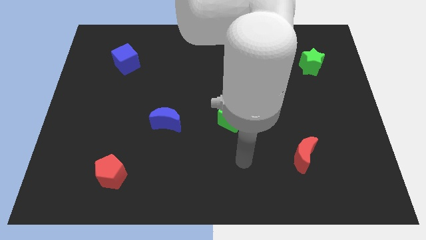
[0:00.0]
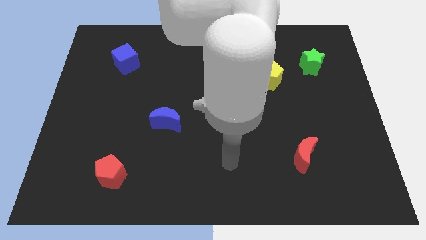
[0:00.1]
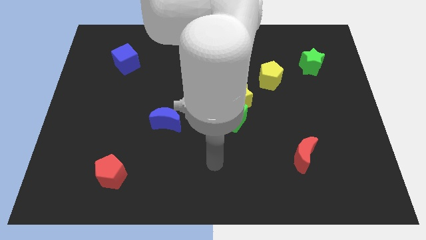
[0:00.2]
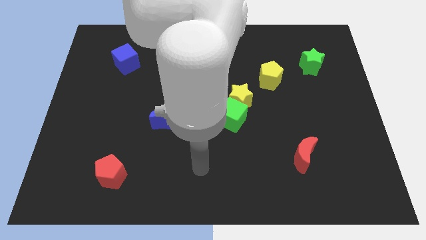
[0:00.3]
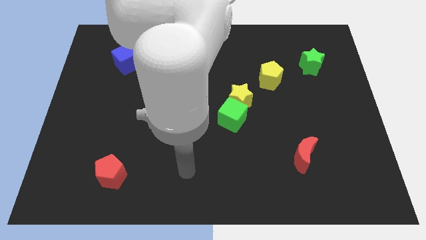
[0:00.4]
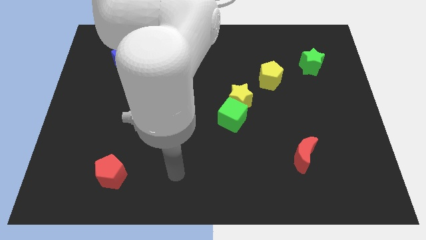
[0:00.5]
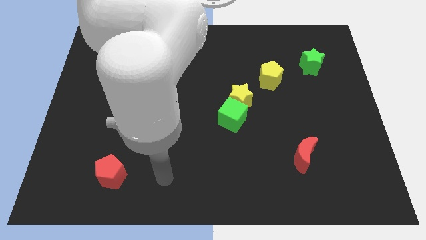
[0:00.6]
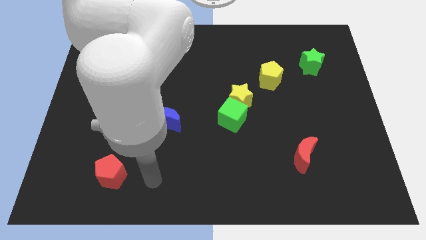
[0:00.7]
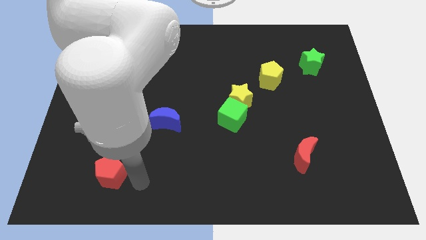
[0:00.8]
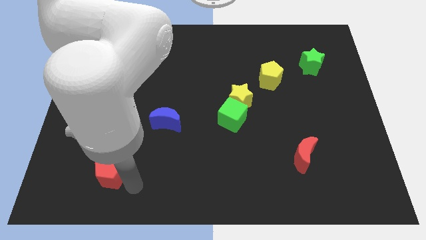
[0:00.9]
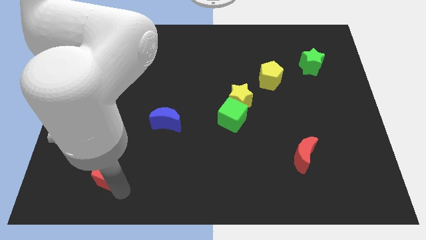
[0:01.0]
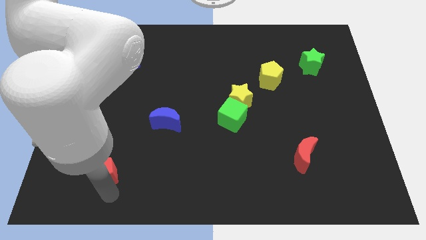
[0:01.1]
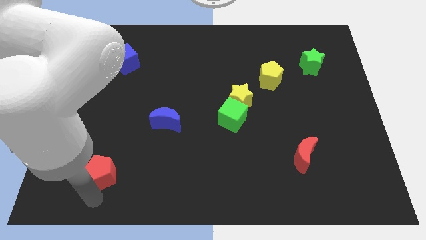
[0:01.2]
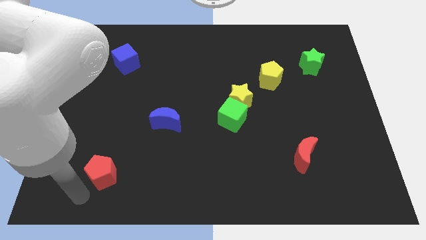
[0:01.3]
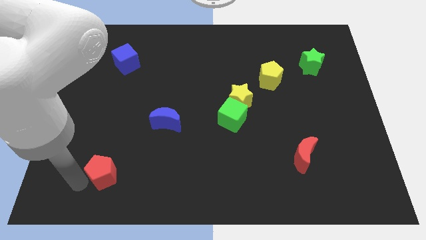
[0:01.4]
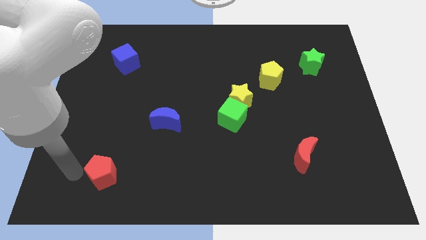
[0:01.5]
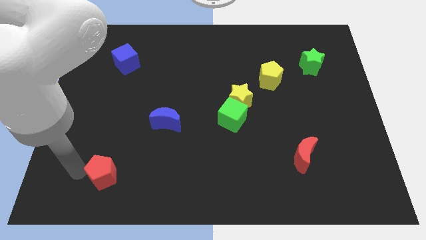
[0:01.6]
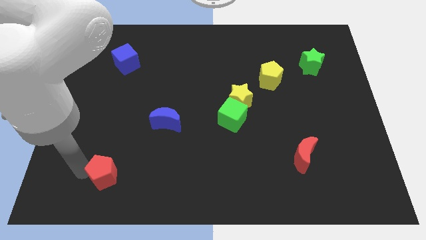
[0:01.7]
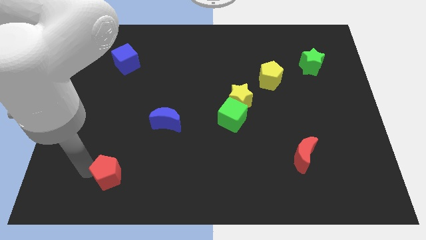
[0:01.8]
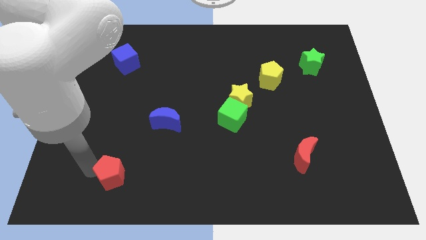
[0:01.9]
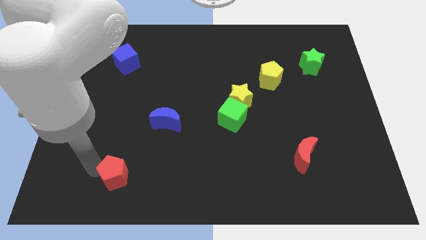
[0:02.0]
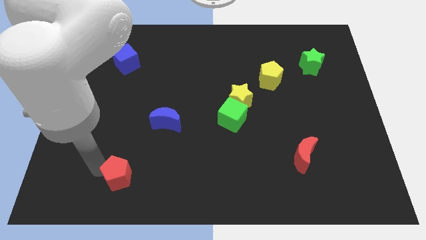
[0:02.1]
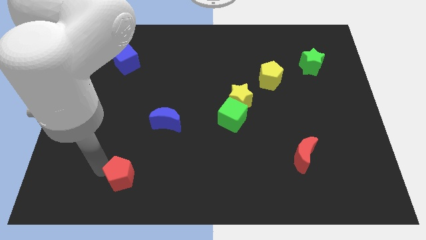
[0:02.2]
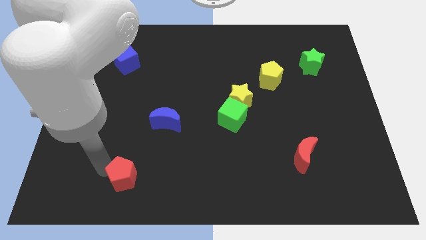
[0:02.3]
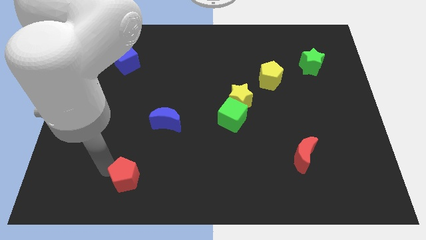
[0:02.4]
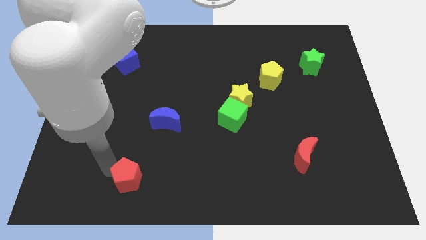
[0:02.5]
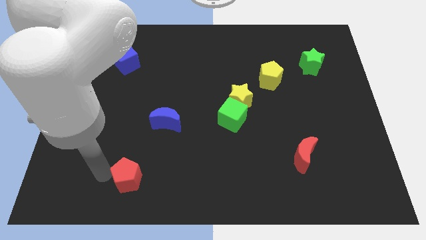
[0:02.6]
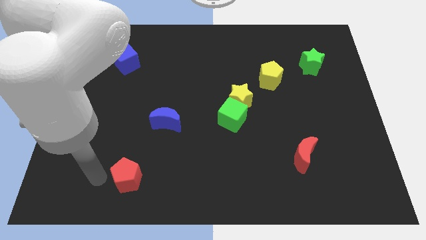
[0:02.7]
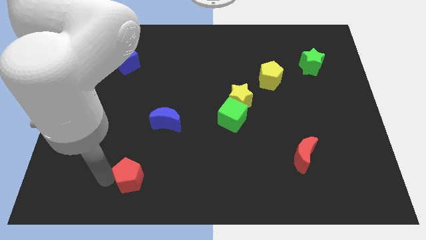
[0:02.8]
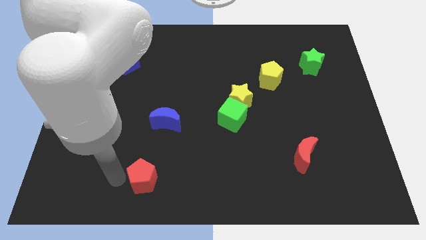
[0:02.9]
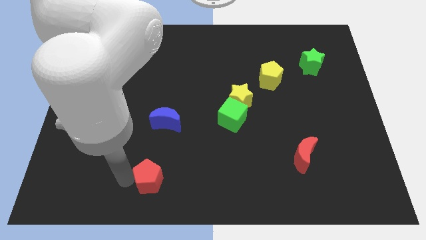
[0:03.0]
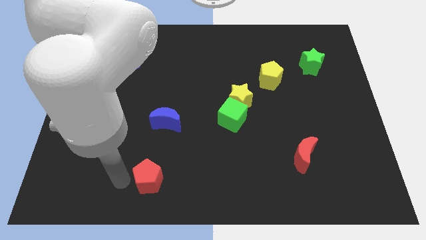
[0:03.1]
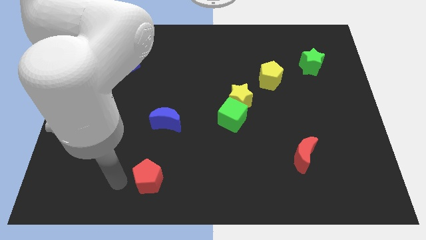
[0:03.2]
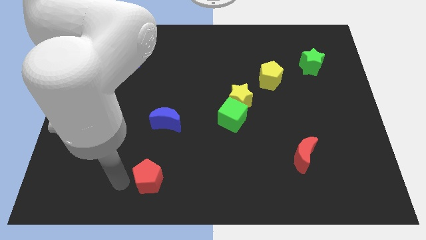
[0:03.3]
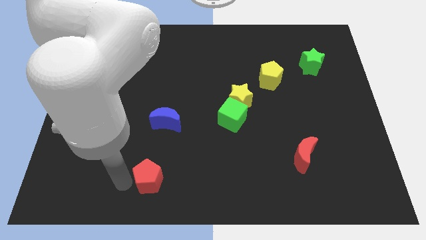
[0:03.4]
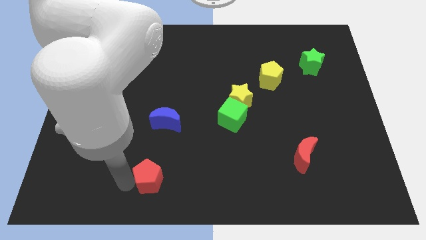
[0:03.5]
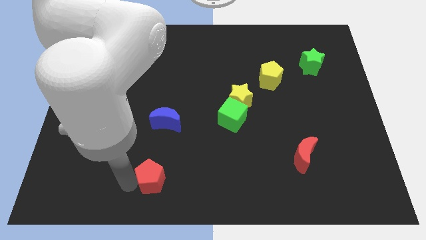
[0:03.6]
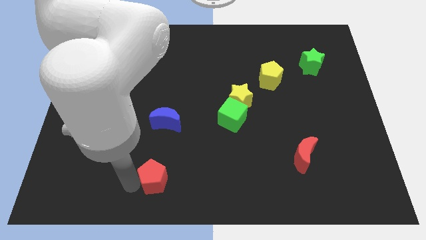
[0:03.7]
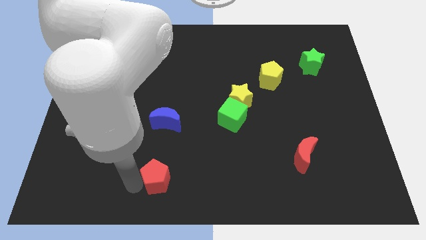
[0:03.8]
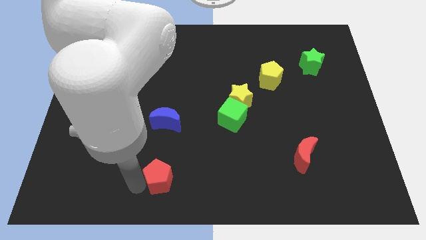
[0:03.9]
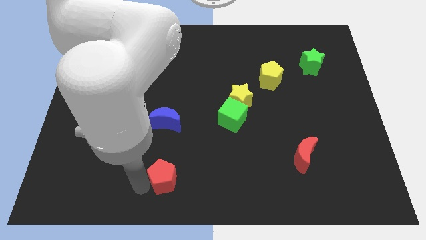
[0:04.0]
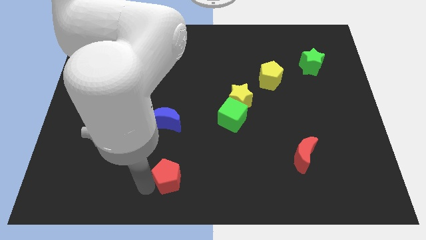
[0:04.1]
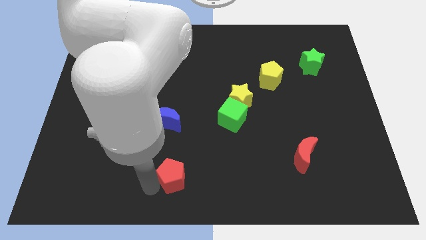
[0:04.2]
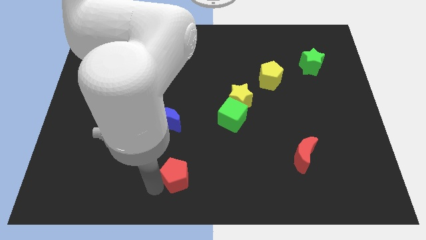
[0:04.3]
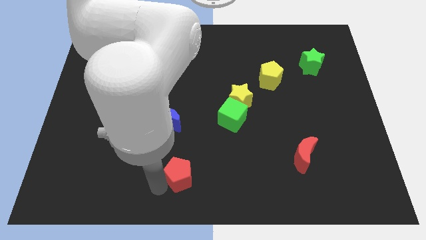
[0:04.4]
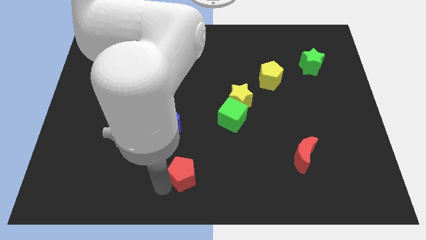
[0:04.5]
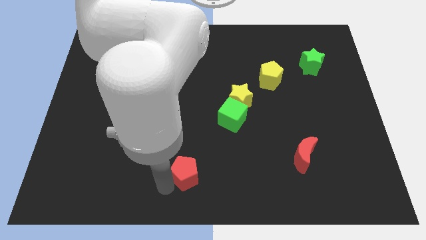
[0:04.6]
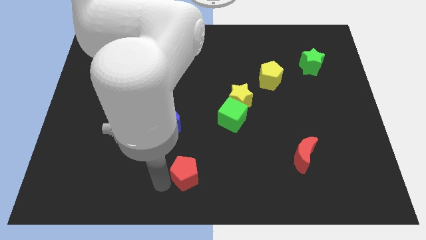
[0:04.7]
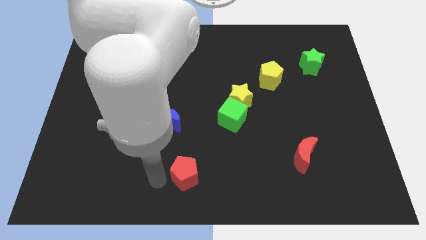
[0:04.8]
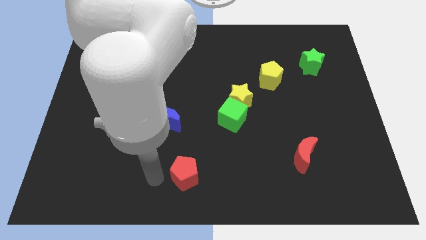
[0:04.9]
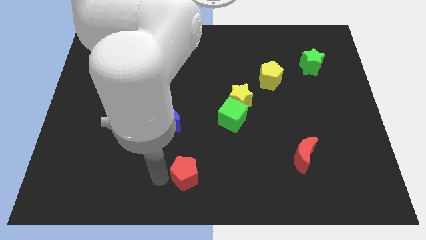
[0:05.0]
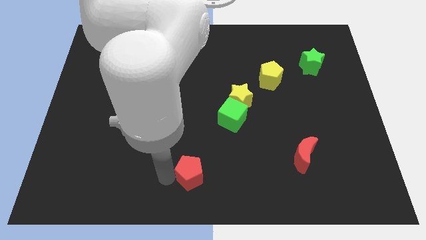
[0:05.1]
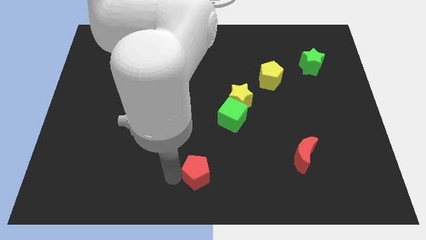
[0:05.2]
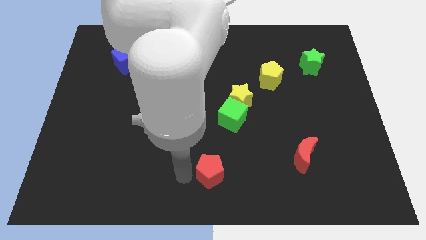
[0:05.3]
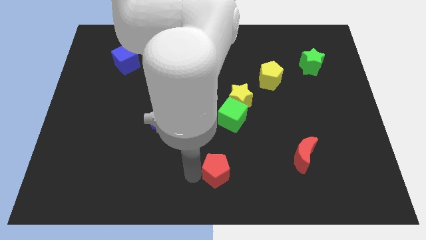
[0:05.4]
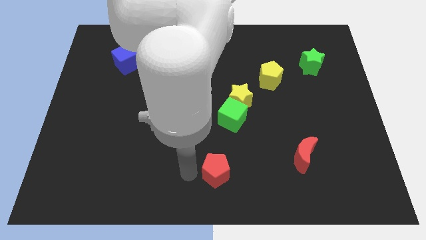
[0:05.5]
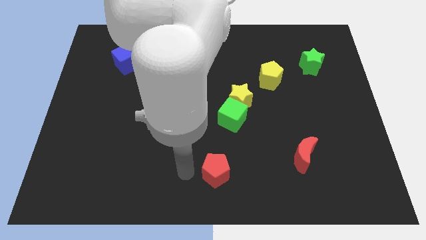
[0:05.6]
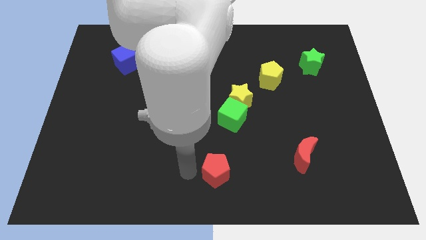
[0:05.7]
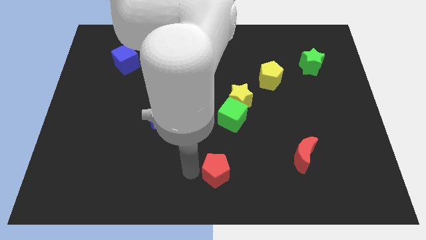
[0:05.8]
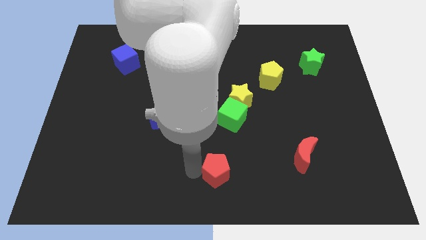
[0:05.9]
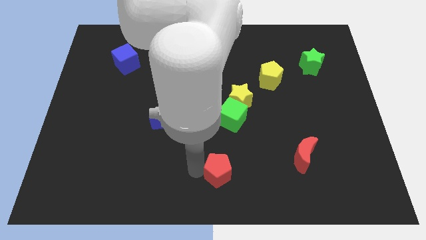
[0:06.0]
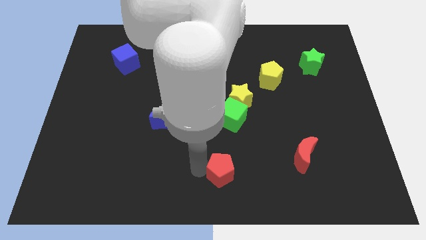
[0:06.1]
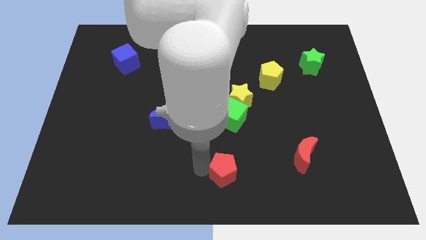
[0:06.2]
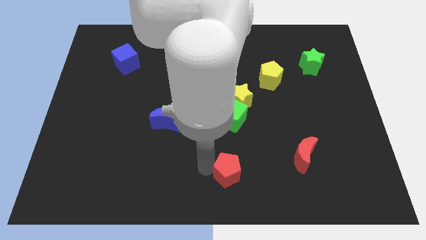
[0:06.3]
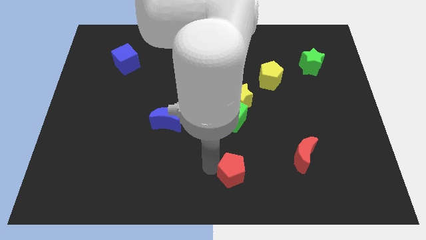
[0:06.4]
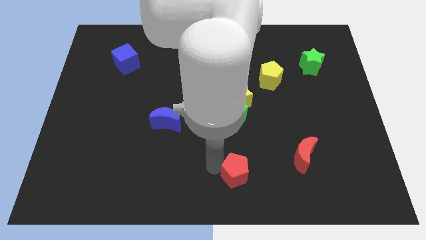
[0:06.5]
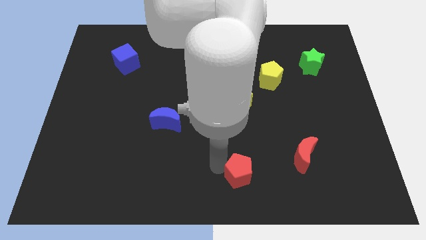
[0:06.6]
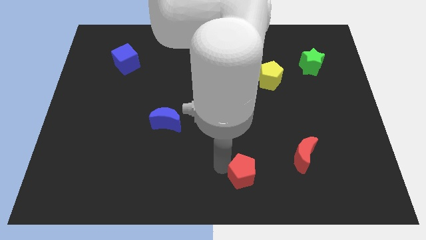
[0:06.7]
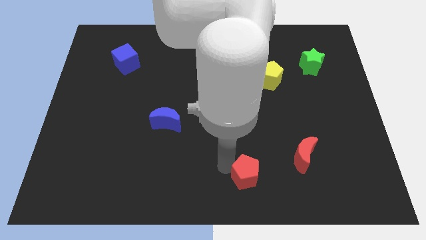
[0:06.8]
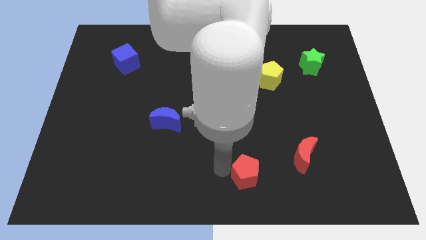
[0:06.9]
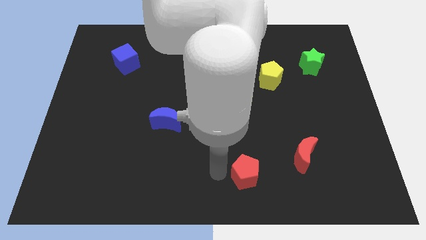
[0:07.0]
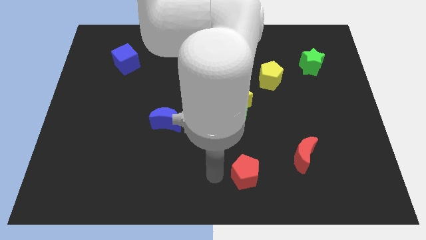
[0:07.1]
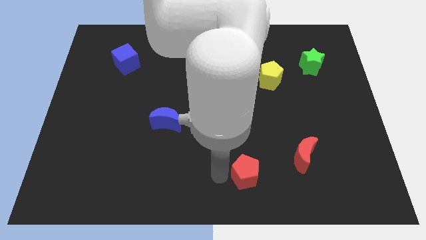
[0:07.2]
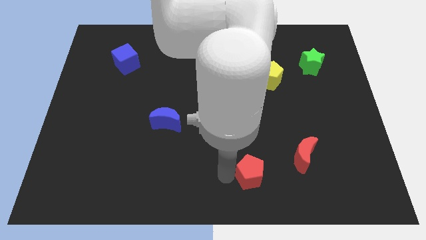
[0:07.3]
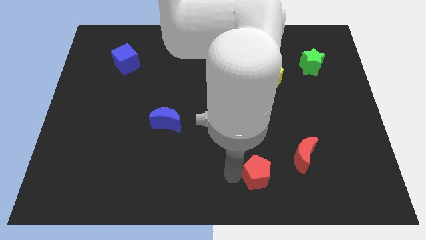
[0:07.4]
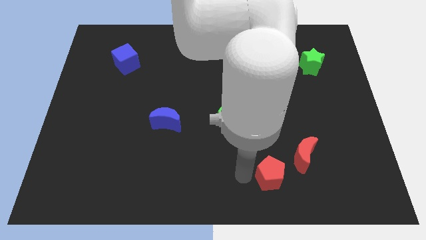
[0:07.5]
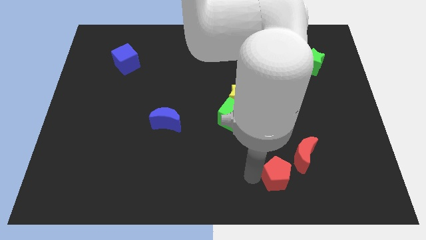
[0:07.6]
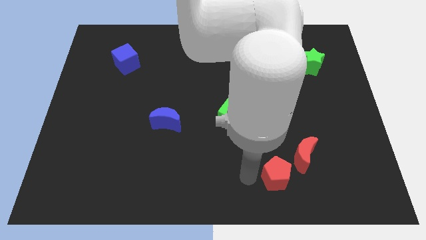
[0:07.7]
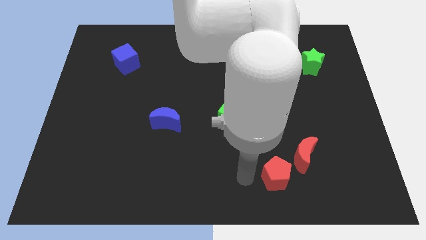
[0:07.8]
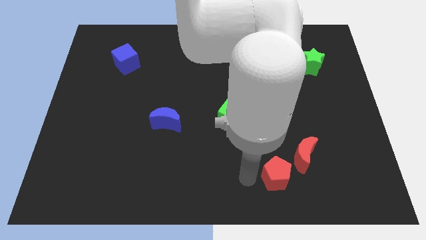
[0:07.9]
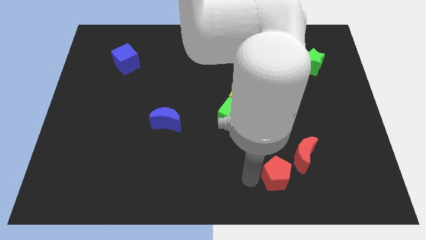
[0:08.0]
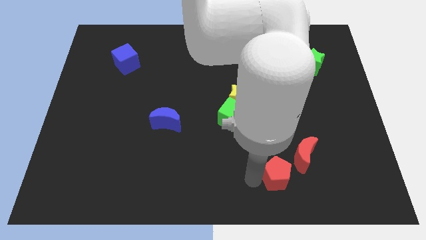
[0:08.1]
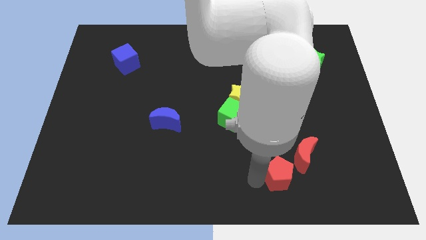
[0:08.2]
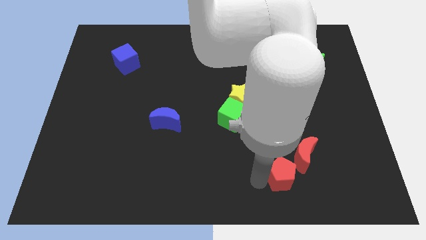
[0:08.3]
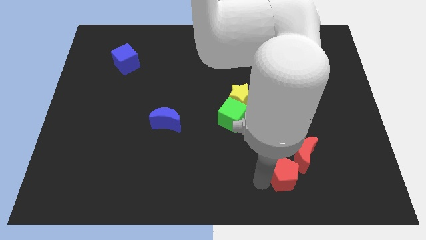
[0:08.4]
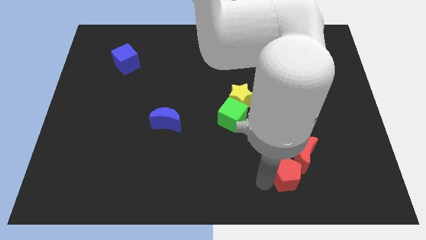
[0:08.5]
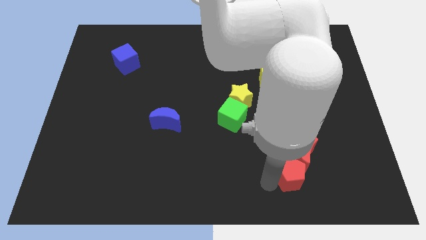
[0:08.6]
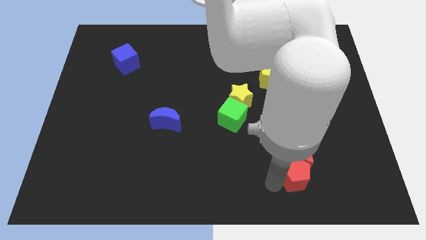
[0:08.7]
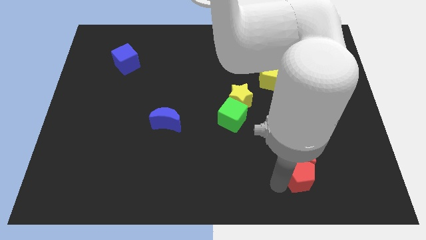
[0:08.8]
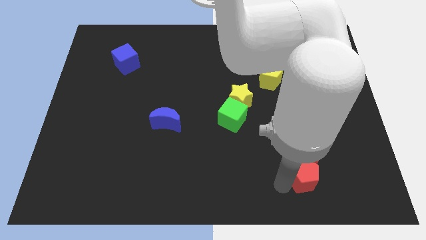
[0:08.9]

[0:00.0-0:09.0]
push the red pentagon to the bottom right of the red moon
